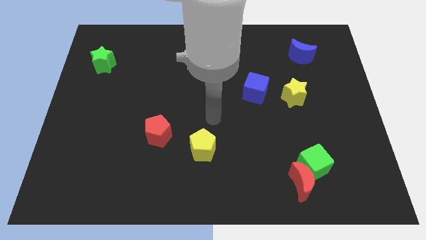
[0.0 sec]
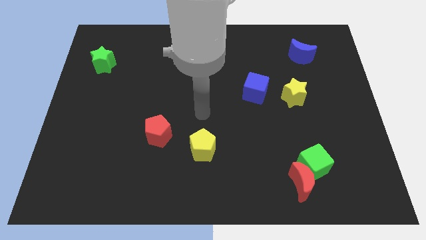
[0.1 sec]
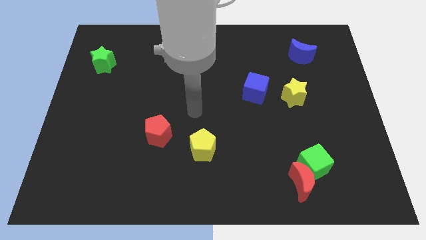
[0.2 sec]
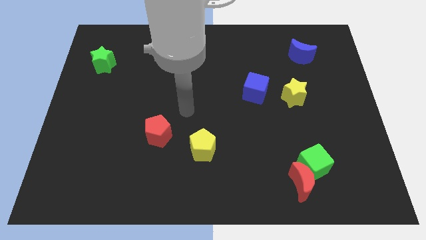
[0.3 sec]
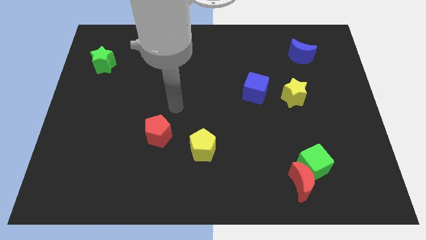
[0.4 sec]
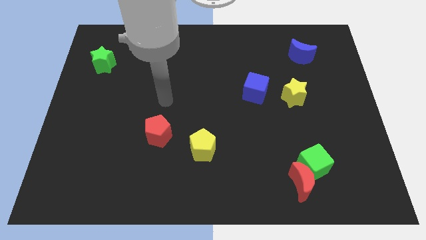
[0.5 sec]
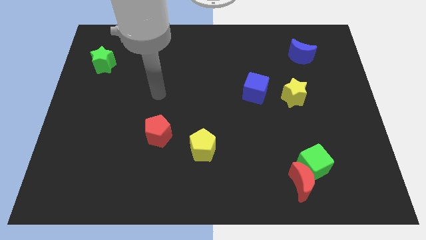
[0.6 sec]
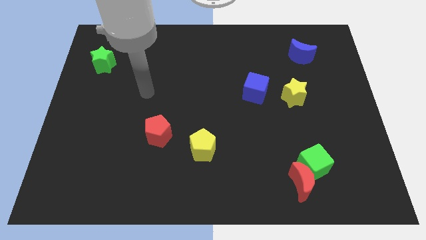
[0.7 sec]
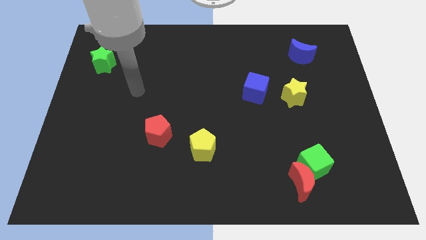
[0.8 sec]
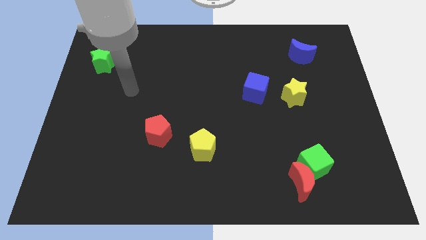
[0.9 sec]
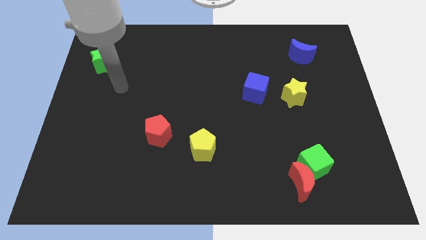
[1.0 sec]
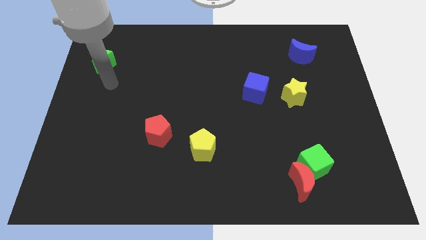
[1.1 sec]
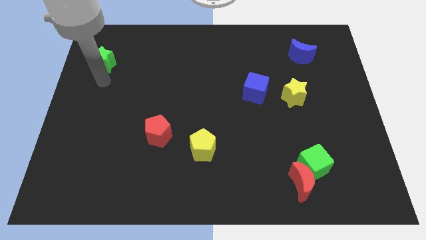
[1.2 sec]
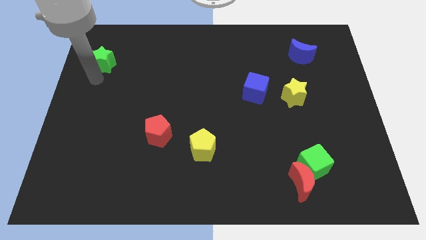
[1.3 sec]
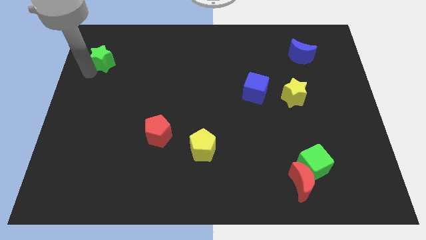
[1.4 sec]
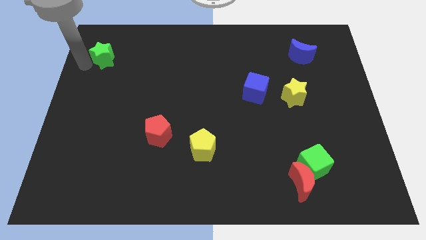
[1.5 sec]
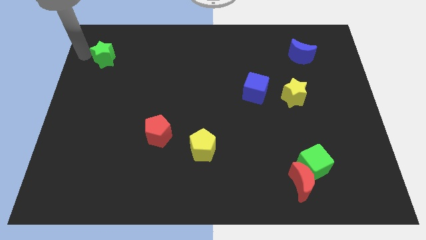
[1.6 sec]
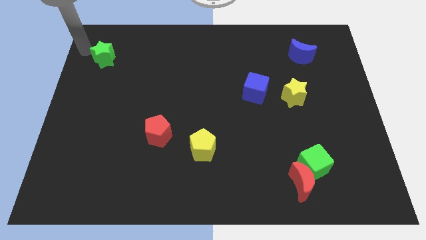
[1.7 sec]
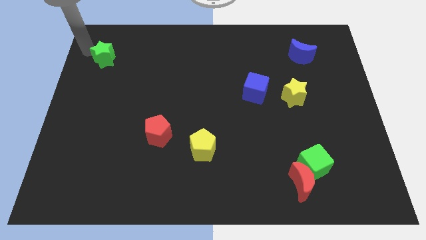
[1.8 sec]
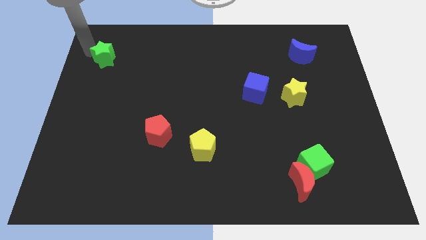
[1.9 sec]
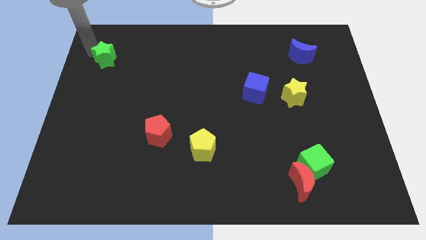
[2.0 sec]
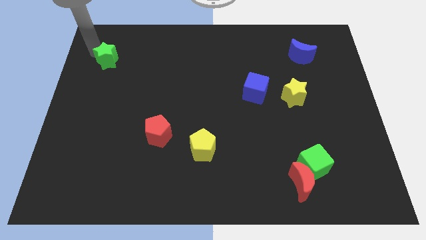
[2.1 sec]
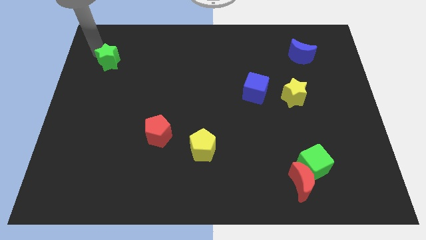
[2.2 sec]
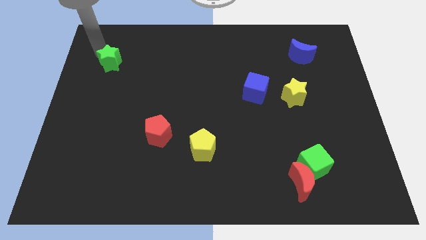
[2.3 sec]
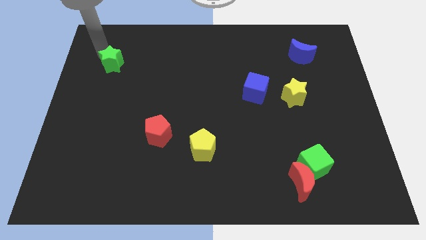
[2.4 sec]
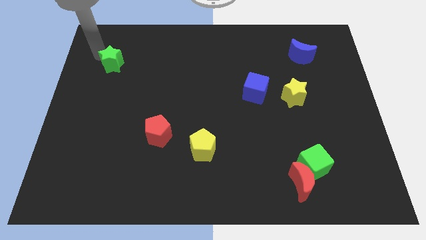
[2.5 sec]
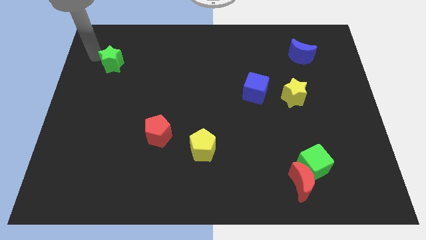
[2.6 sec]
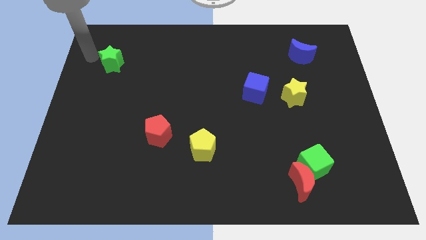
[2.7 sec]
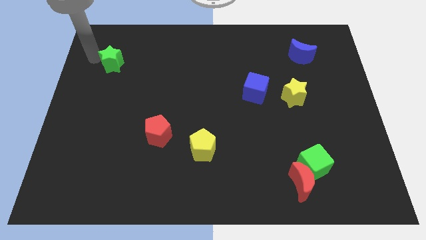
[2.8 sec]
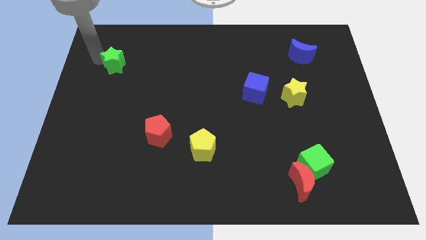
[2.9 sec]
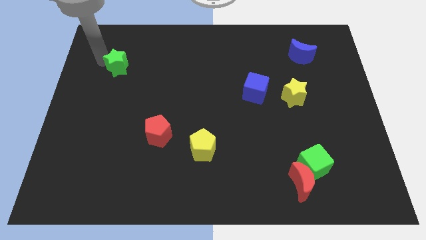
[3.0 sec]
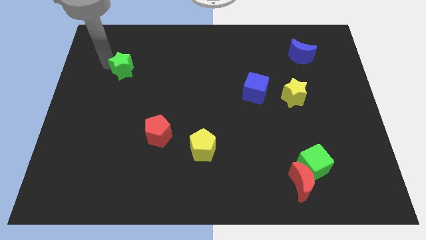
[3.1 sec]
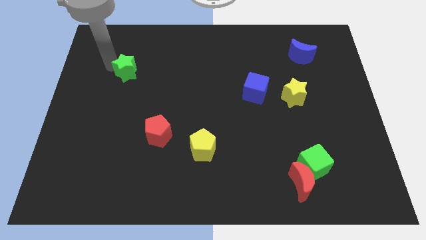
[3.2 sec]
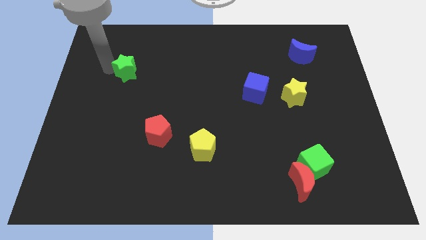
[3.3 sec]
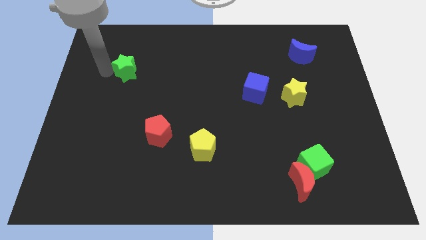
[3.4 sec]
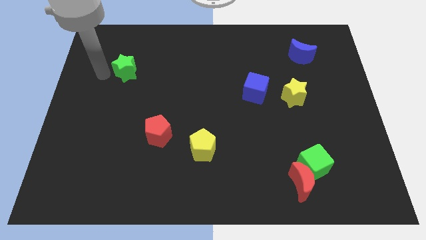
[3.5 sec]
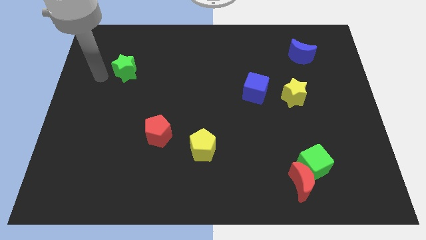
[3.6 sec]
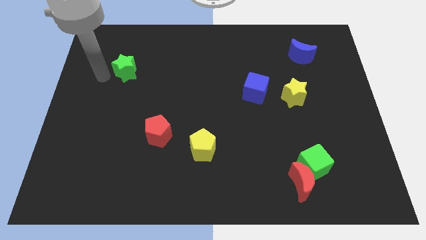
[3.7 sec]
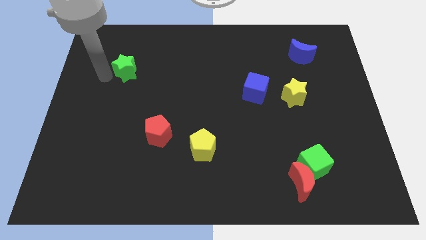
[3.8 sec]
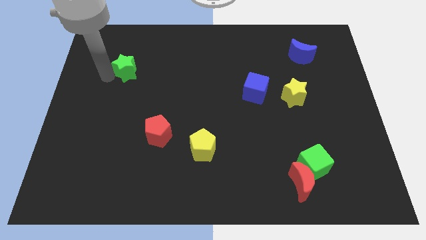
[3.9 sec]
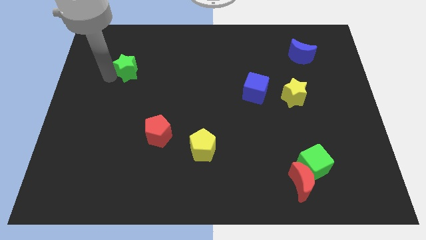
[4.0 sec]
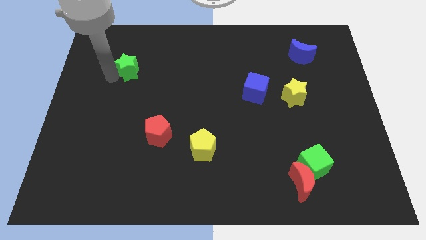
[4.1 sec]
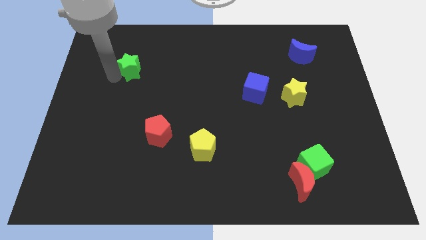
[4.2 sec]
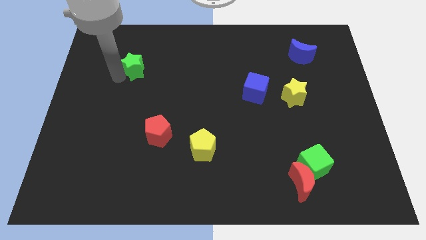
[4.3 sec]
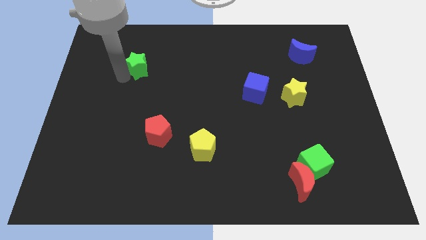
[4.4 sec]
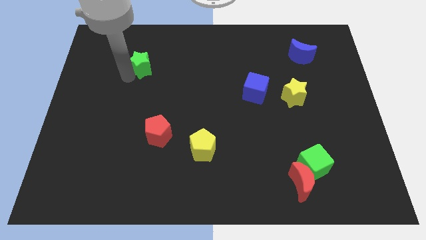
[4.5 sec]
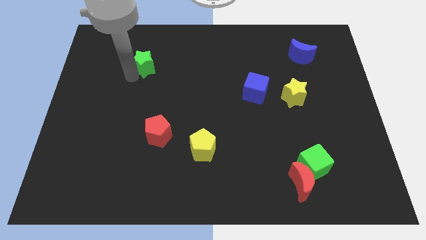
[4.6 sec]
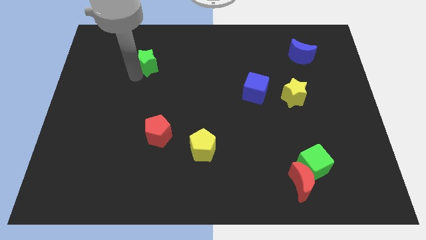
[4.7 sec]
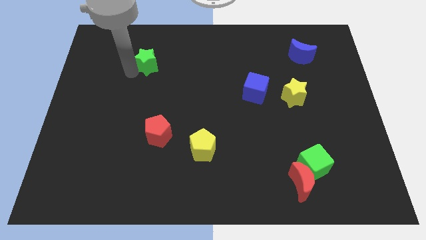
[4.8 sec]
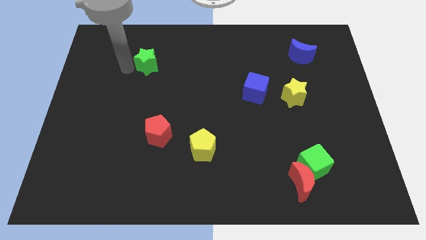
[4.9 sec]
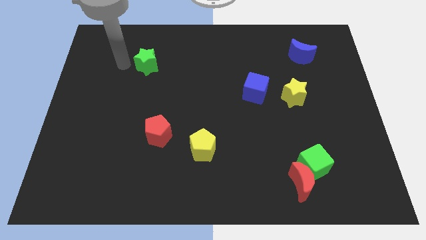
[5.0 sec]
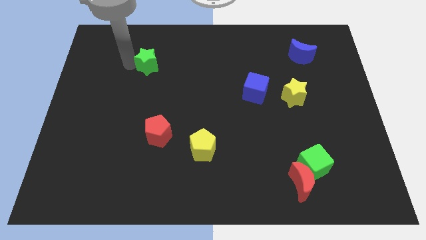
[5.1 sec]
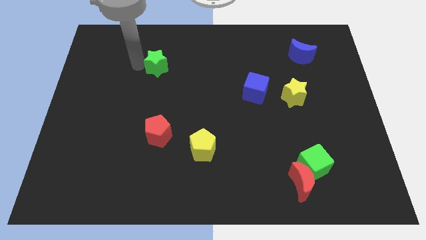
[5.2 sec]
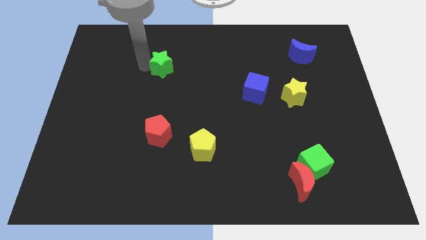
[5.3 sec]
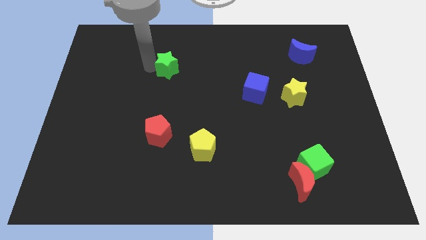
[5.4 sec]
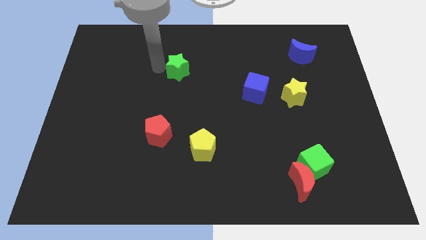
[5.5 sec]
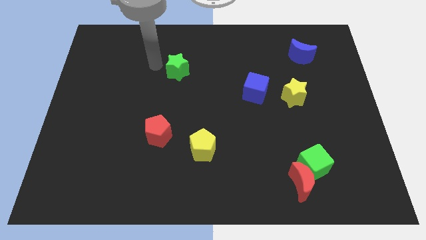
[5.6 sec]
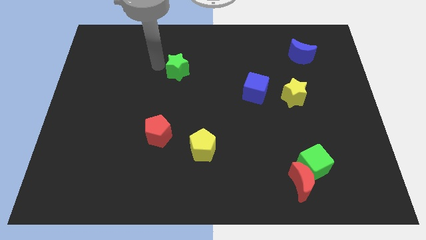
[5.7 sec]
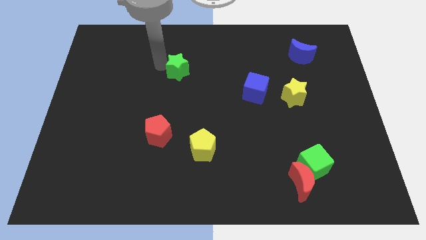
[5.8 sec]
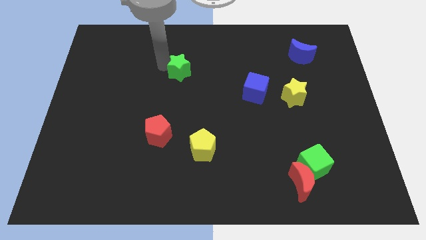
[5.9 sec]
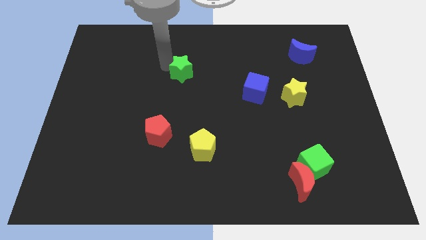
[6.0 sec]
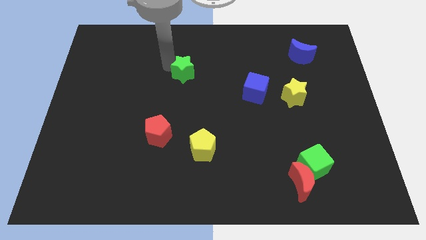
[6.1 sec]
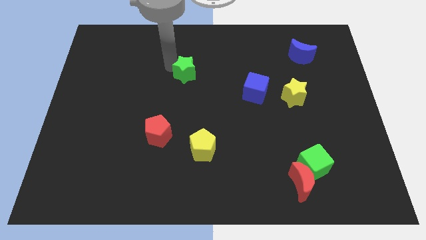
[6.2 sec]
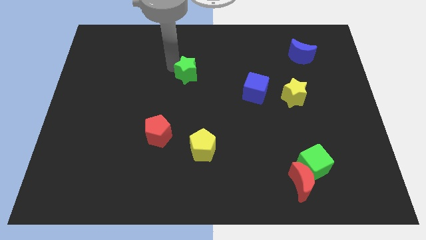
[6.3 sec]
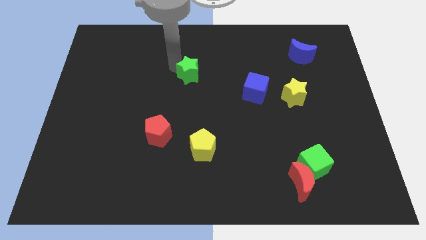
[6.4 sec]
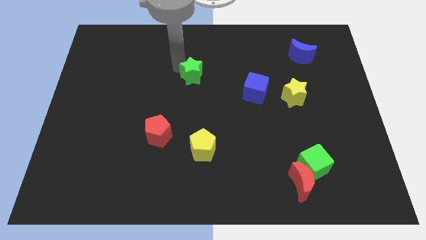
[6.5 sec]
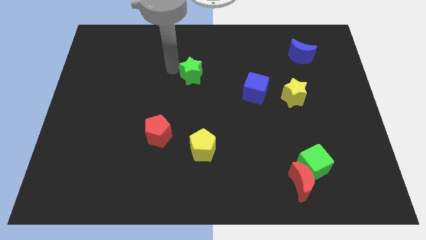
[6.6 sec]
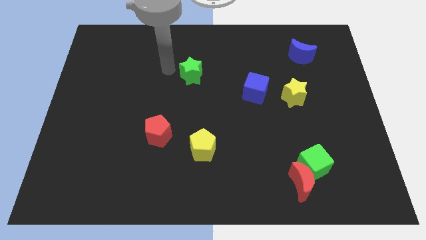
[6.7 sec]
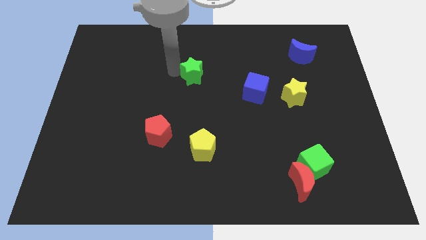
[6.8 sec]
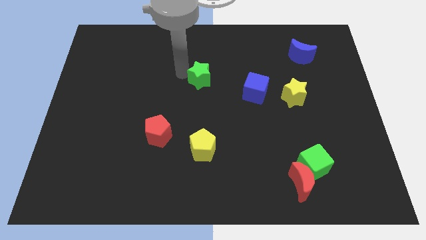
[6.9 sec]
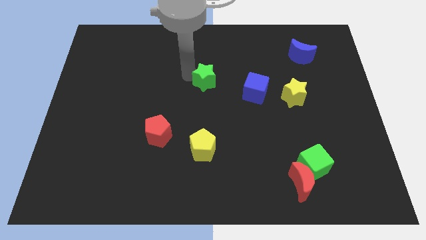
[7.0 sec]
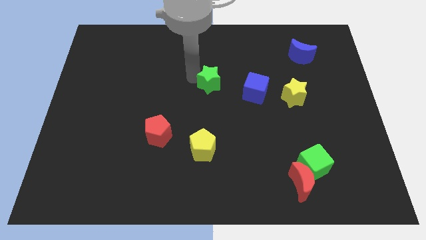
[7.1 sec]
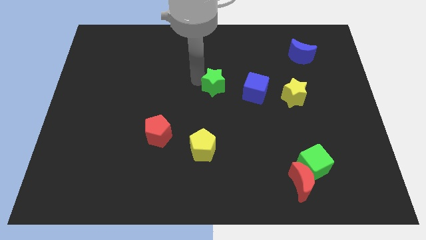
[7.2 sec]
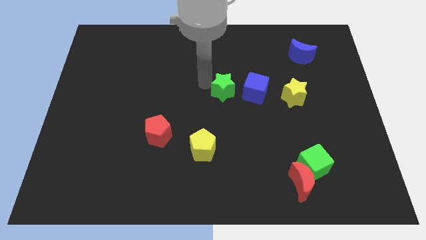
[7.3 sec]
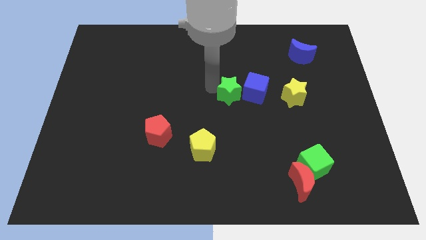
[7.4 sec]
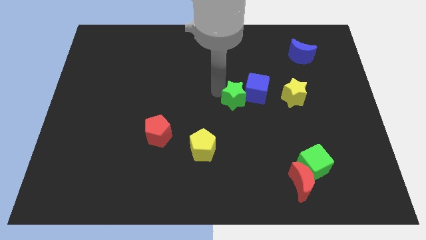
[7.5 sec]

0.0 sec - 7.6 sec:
move the green star to the blue cube
